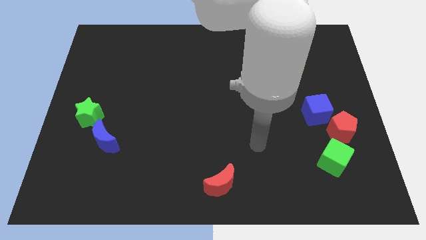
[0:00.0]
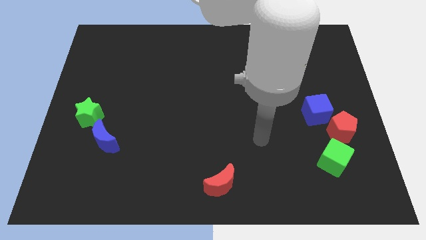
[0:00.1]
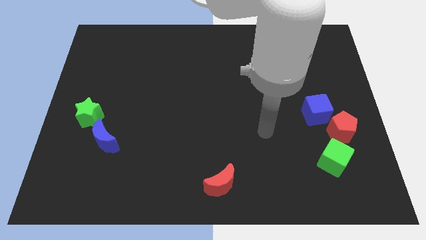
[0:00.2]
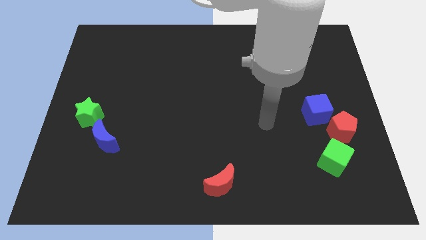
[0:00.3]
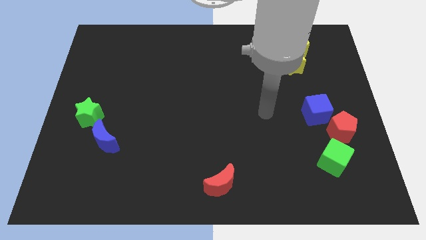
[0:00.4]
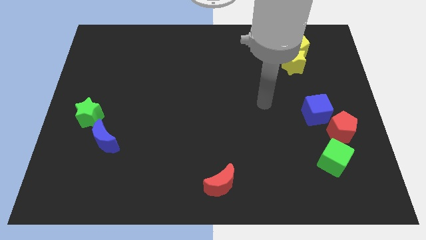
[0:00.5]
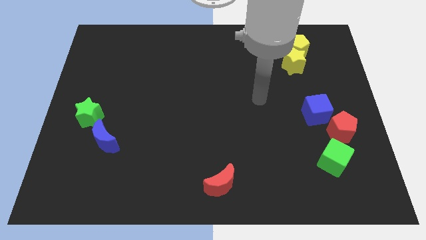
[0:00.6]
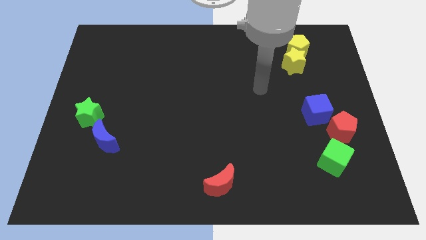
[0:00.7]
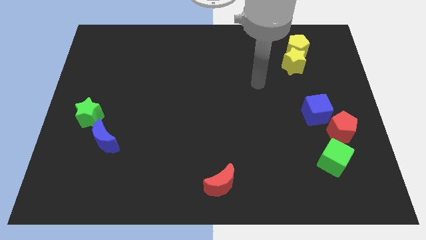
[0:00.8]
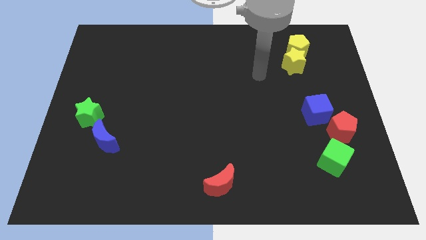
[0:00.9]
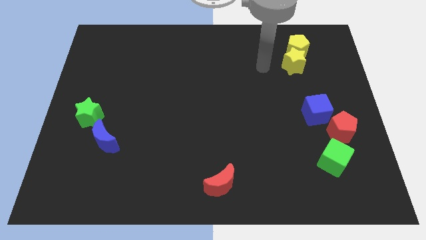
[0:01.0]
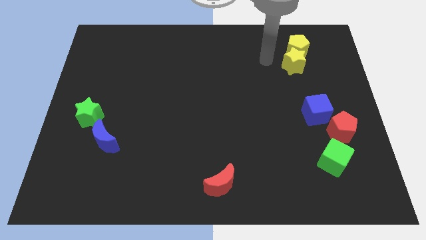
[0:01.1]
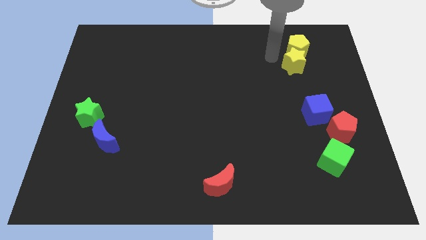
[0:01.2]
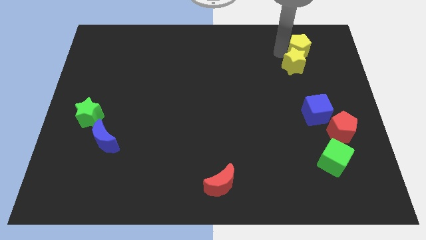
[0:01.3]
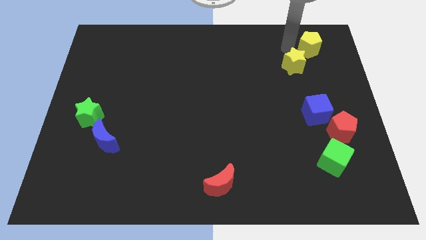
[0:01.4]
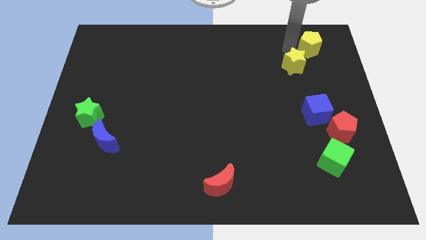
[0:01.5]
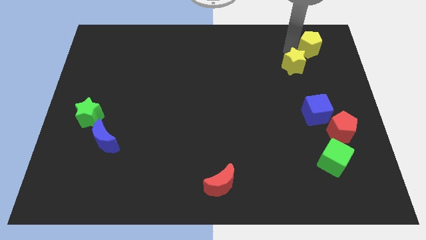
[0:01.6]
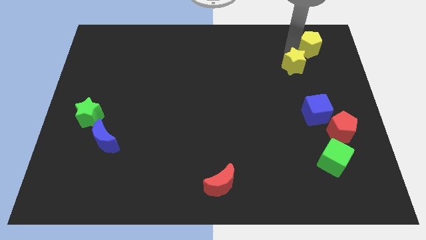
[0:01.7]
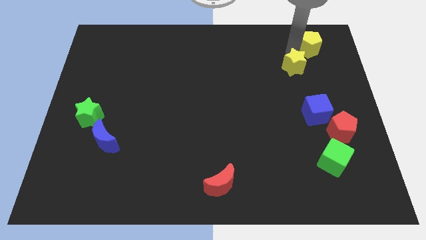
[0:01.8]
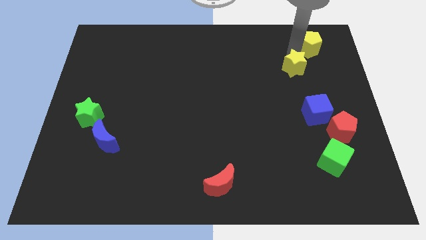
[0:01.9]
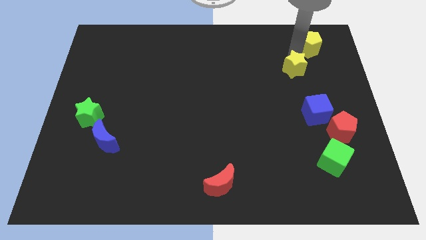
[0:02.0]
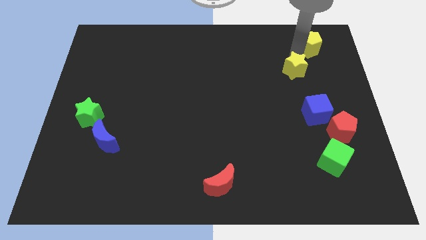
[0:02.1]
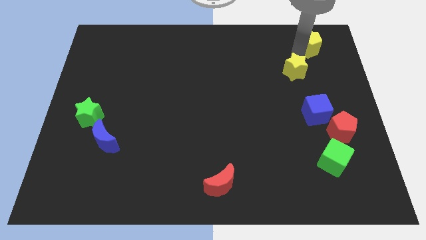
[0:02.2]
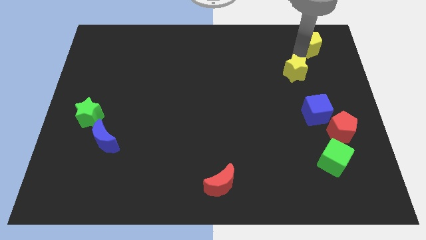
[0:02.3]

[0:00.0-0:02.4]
separate the yellow star from the yellow pentagon

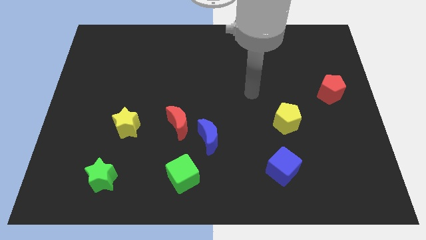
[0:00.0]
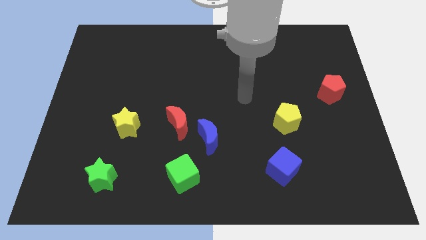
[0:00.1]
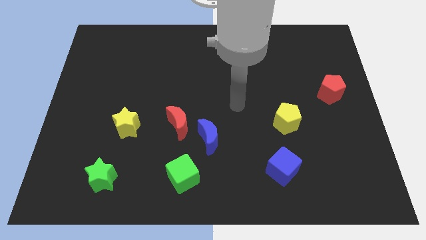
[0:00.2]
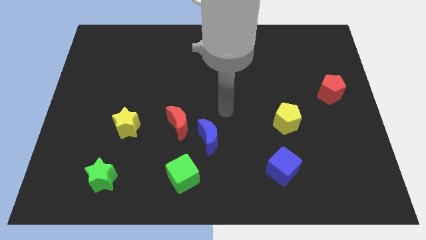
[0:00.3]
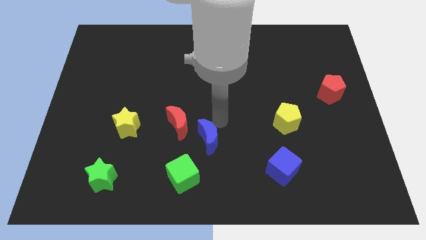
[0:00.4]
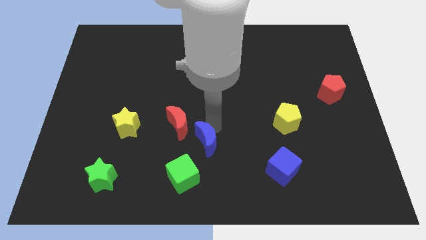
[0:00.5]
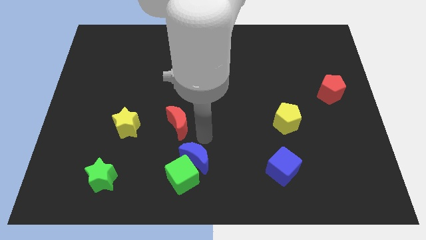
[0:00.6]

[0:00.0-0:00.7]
separate the red moon from the blue moon

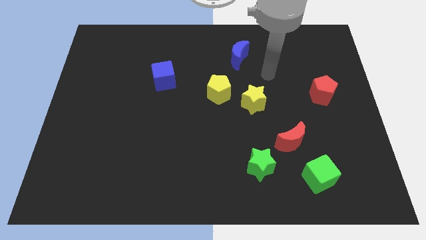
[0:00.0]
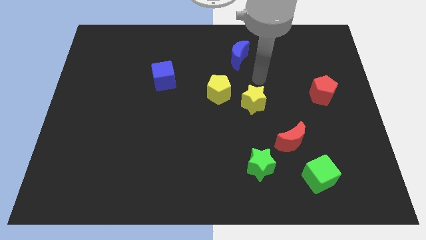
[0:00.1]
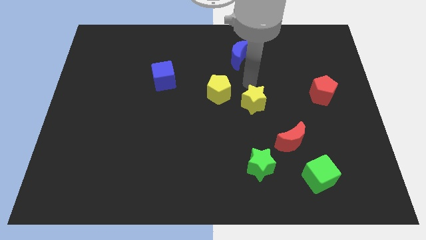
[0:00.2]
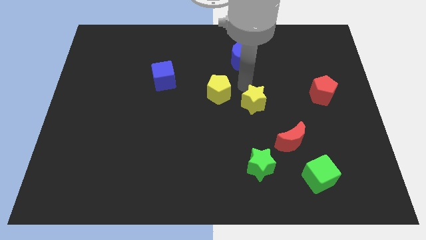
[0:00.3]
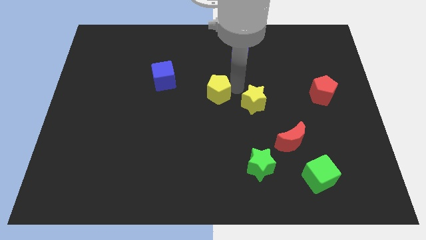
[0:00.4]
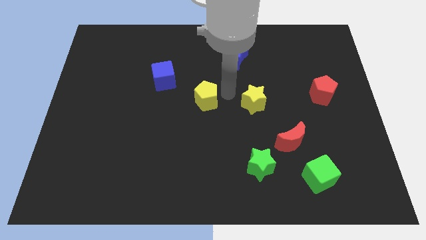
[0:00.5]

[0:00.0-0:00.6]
move the yellow star away from the yellow pentagon

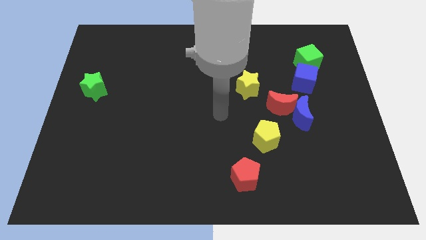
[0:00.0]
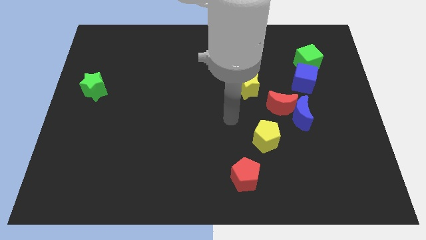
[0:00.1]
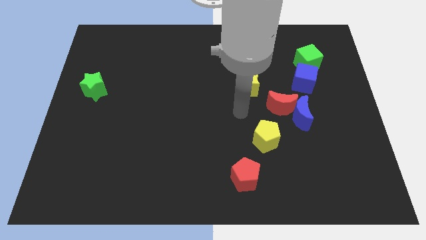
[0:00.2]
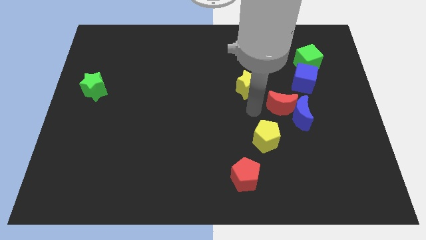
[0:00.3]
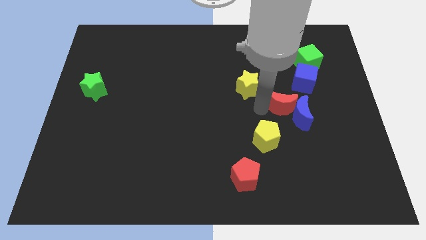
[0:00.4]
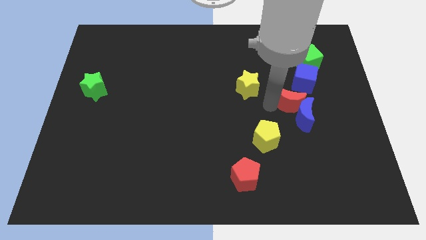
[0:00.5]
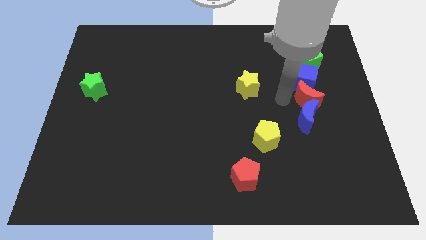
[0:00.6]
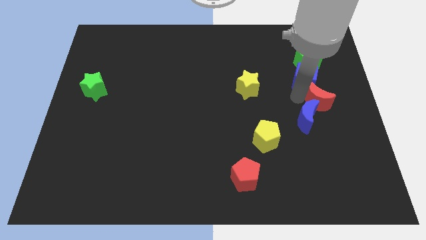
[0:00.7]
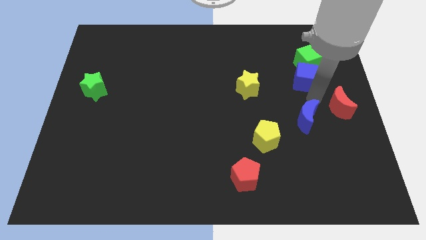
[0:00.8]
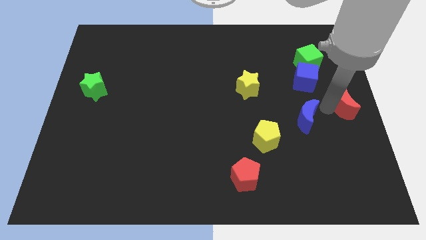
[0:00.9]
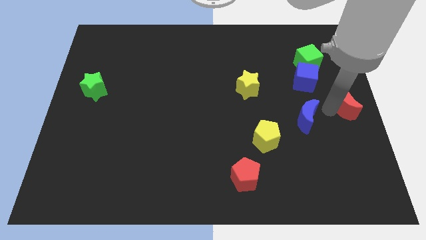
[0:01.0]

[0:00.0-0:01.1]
move the blue moon away from the red moon

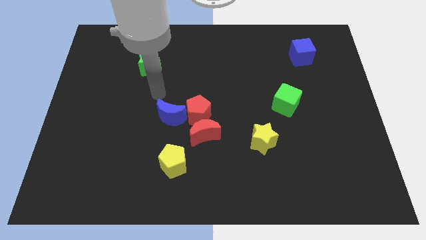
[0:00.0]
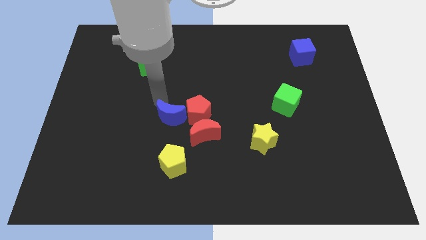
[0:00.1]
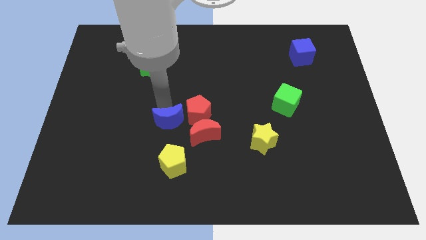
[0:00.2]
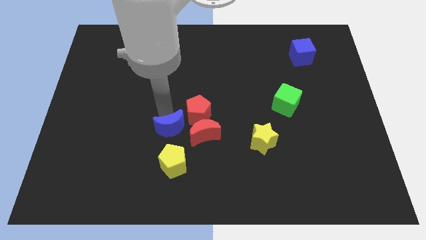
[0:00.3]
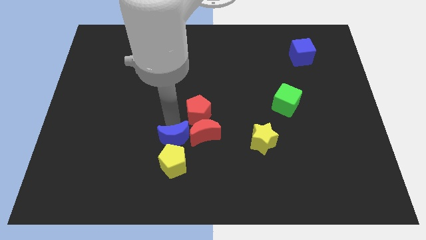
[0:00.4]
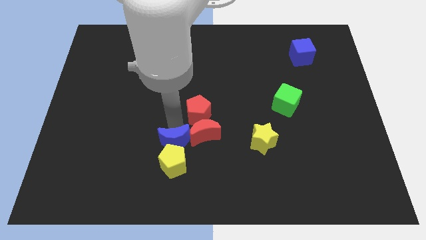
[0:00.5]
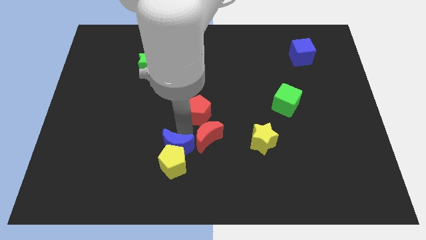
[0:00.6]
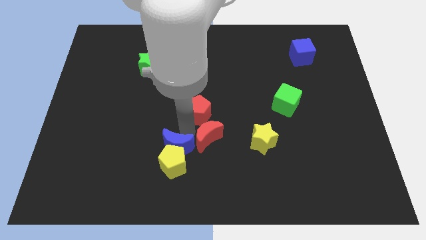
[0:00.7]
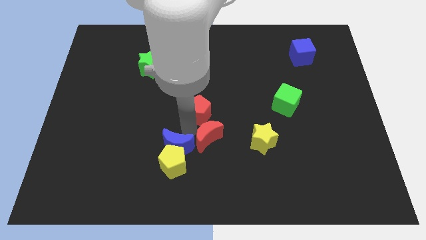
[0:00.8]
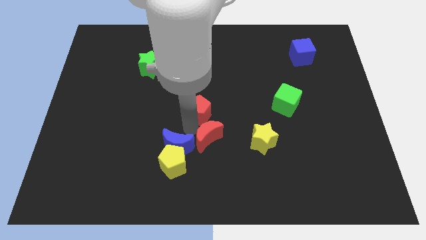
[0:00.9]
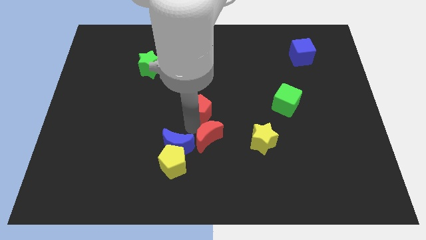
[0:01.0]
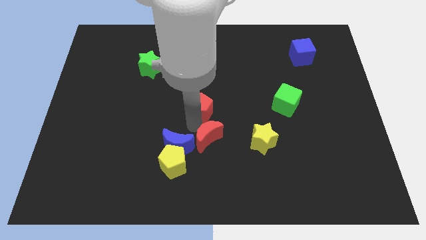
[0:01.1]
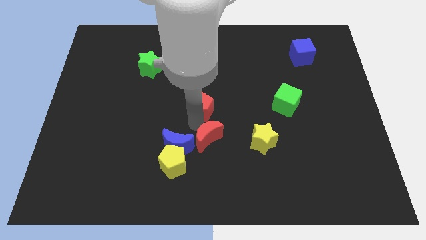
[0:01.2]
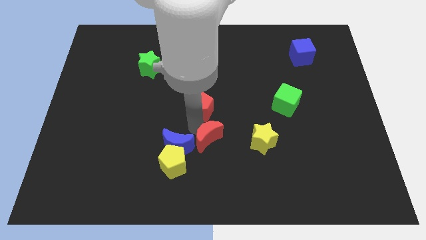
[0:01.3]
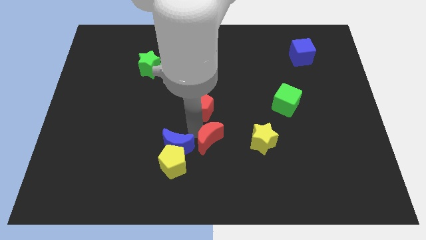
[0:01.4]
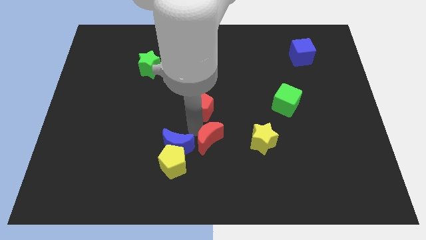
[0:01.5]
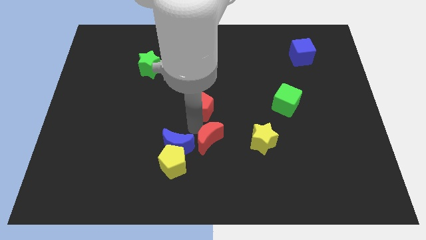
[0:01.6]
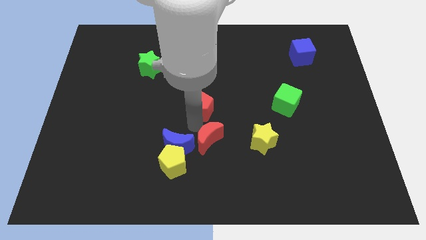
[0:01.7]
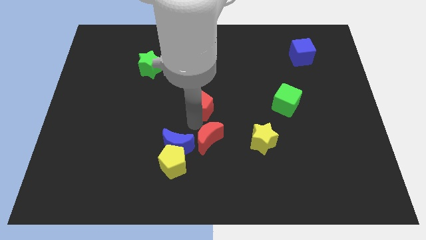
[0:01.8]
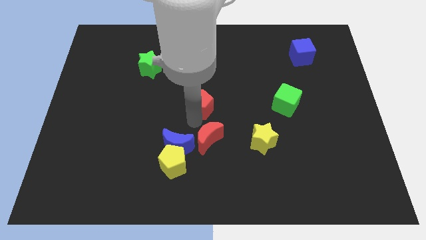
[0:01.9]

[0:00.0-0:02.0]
pull the red pentagon apart from the red moon and blue moon

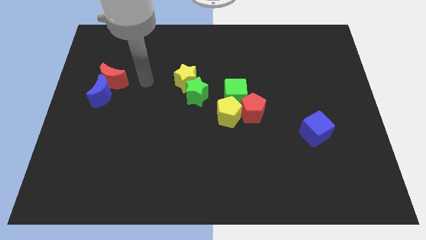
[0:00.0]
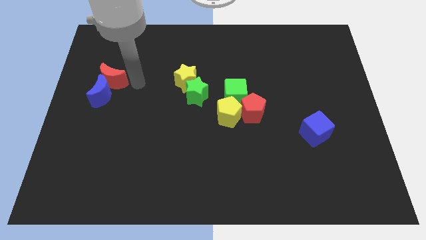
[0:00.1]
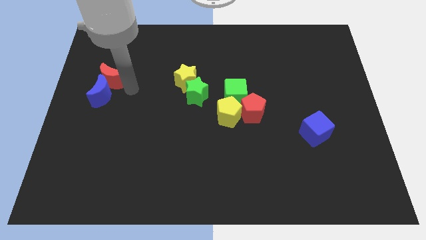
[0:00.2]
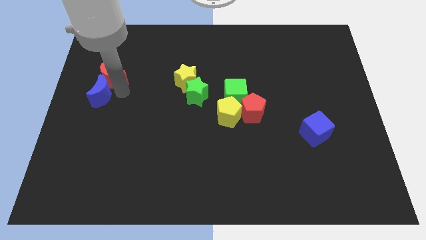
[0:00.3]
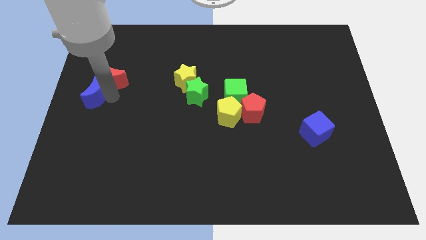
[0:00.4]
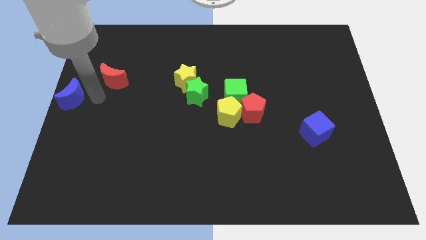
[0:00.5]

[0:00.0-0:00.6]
move the red moon away from the blue moon

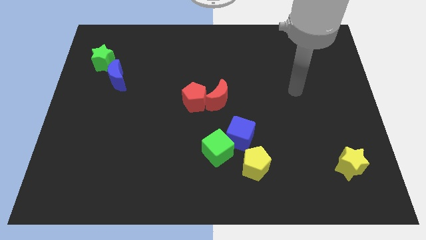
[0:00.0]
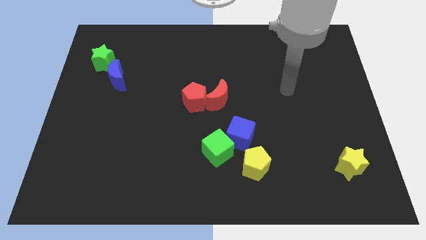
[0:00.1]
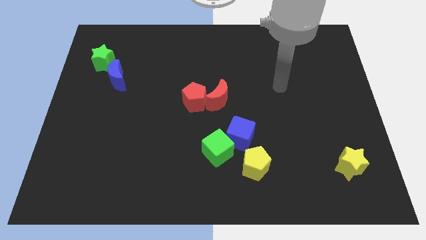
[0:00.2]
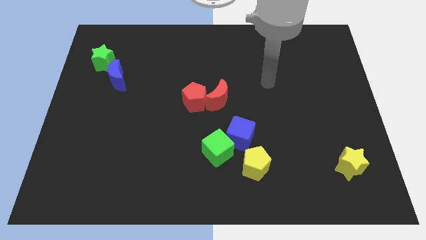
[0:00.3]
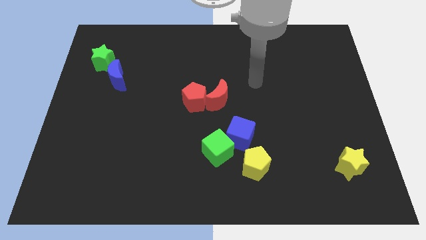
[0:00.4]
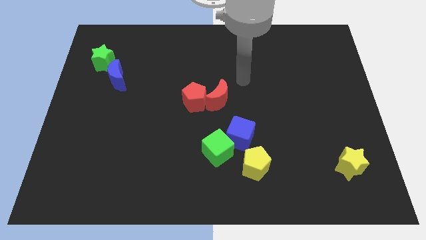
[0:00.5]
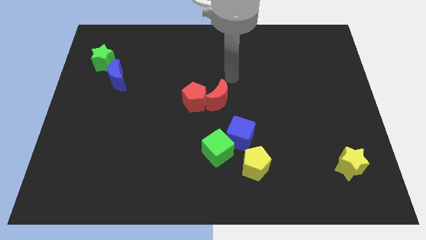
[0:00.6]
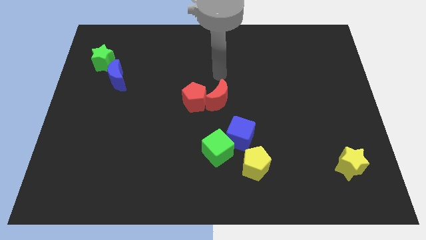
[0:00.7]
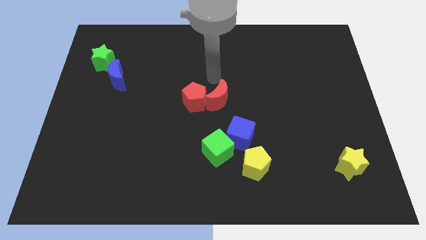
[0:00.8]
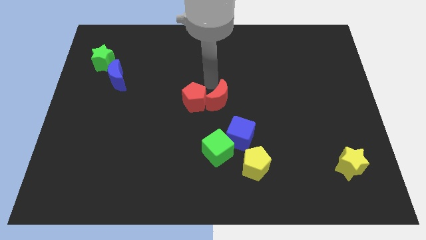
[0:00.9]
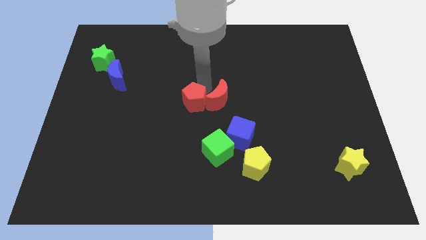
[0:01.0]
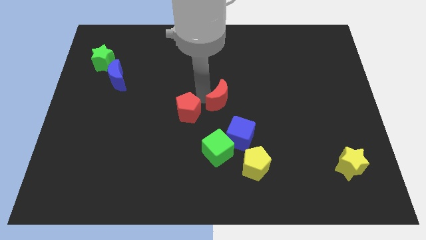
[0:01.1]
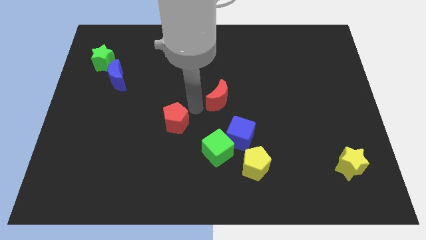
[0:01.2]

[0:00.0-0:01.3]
pull the red moon apart from the red pentagon

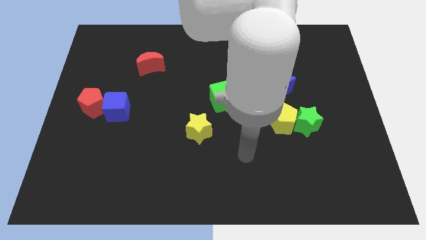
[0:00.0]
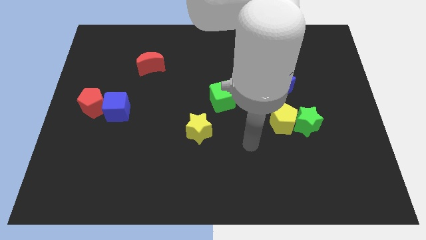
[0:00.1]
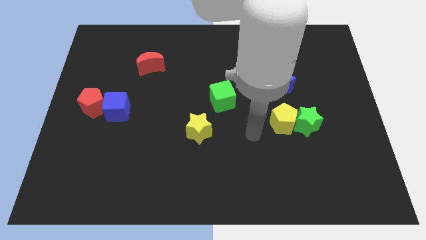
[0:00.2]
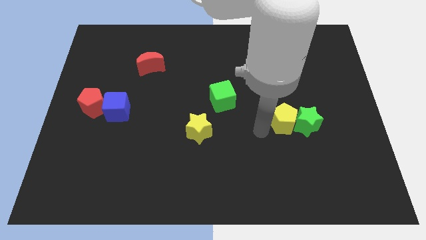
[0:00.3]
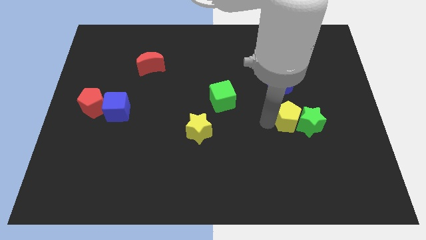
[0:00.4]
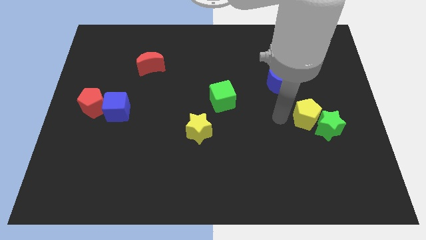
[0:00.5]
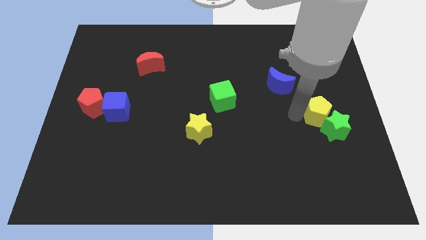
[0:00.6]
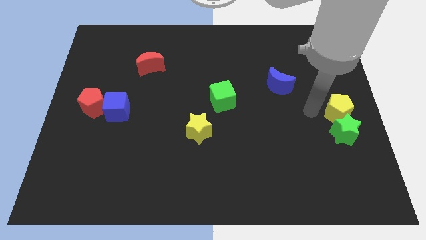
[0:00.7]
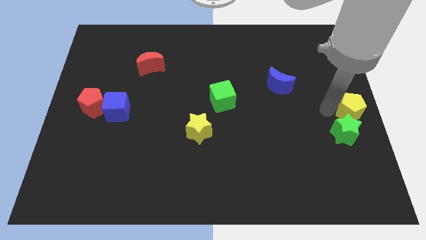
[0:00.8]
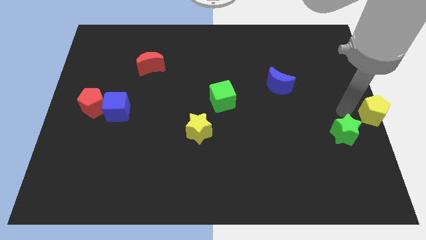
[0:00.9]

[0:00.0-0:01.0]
separate the green star from the yellow pentagon
